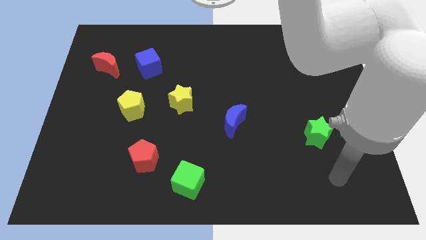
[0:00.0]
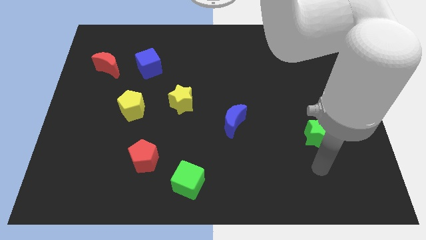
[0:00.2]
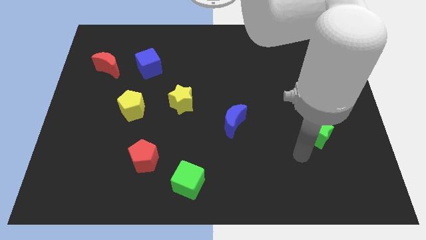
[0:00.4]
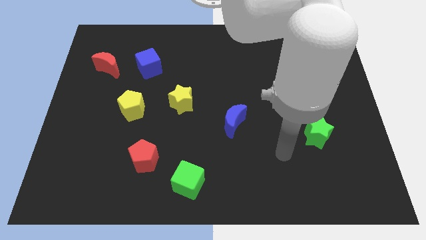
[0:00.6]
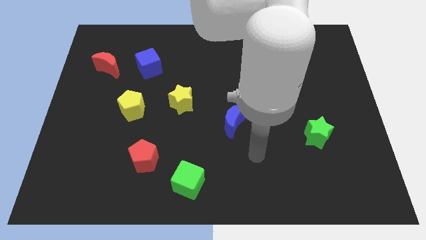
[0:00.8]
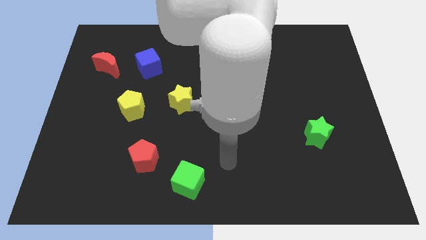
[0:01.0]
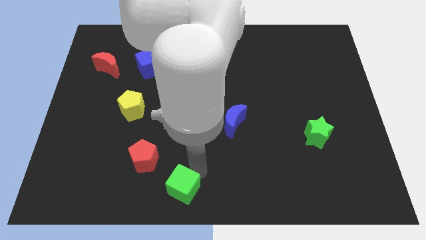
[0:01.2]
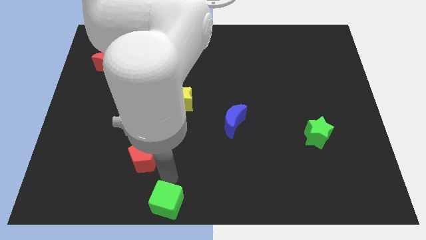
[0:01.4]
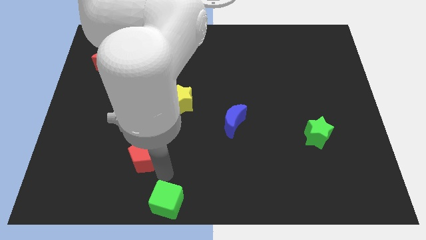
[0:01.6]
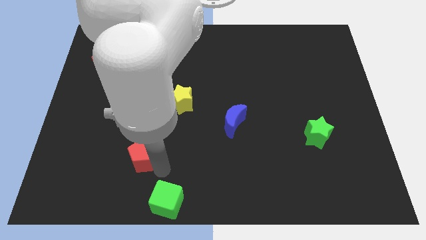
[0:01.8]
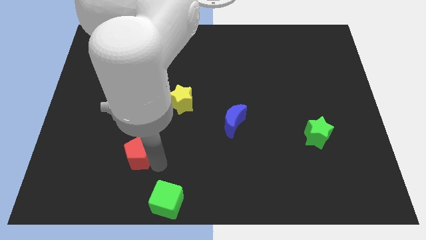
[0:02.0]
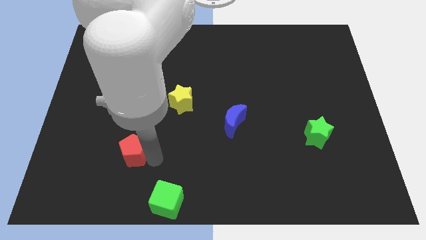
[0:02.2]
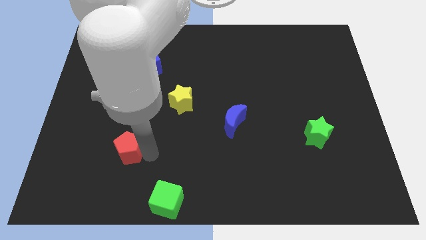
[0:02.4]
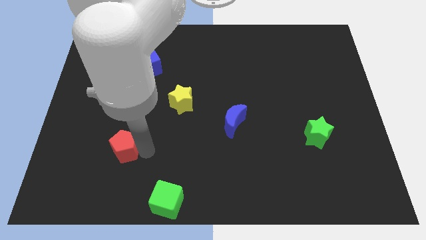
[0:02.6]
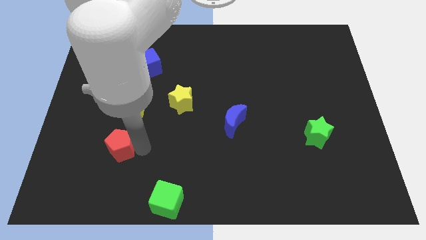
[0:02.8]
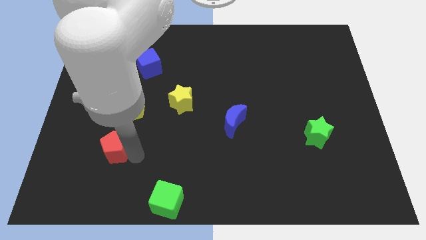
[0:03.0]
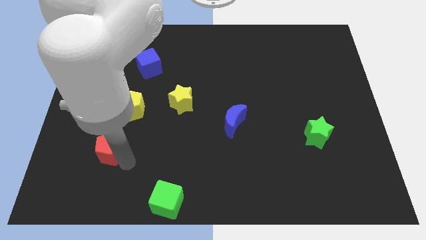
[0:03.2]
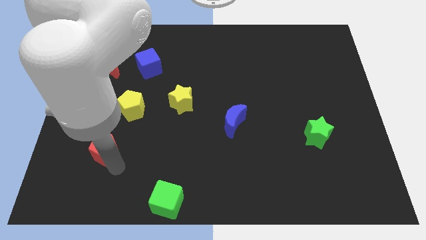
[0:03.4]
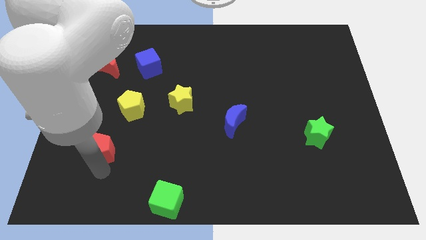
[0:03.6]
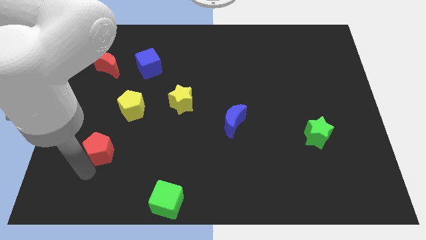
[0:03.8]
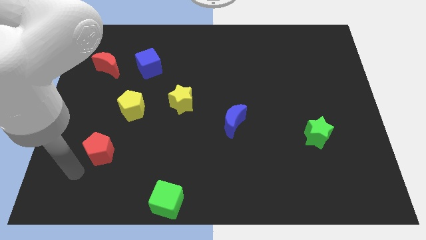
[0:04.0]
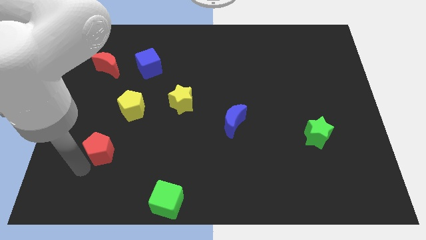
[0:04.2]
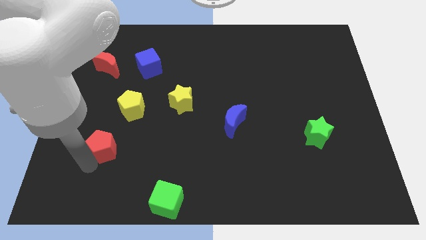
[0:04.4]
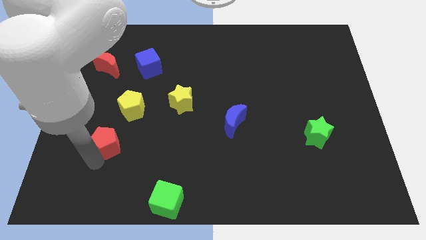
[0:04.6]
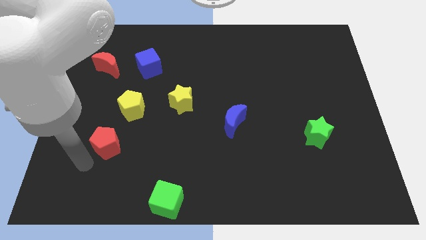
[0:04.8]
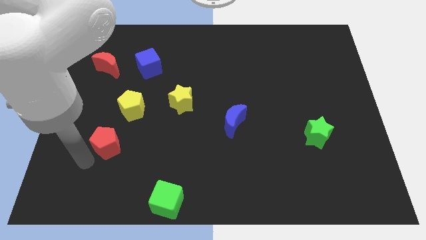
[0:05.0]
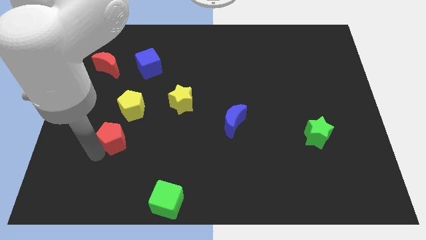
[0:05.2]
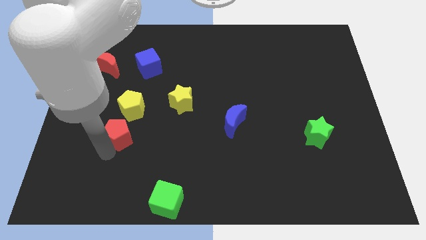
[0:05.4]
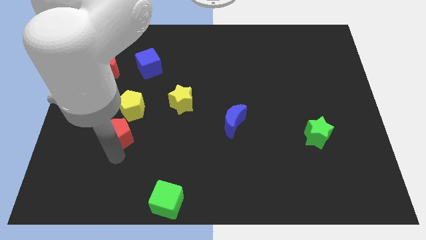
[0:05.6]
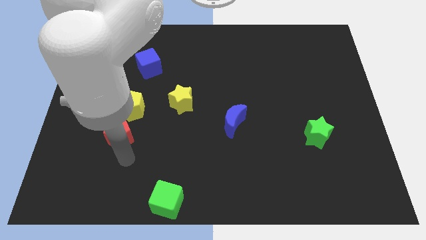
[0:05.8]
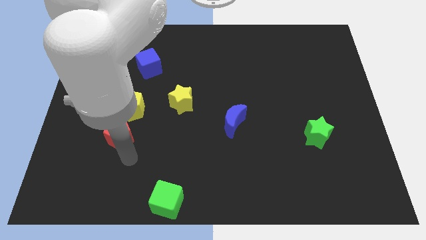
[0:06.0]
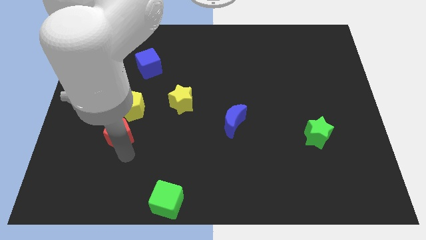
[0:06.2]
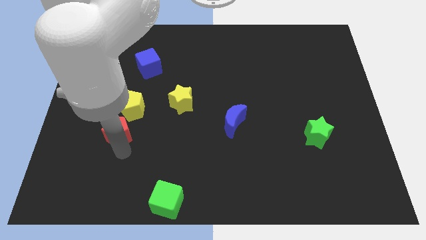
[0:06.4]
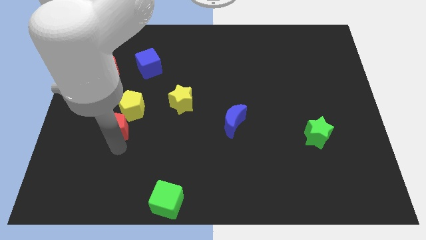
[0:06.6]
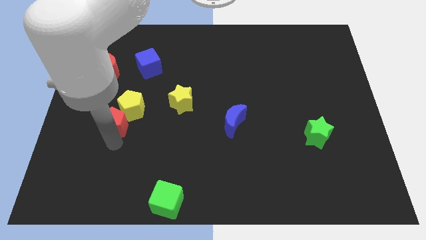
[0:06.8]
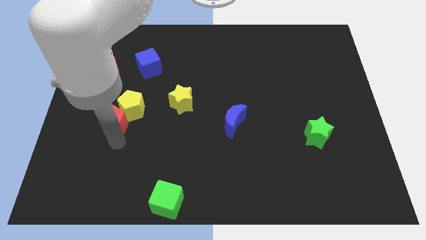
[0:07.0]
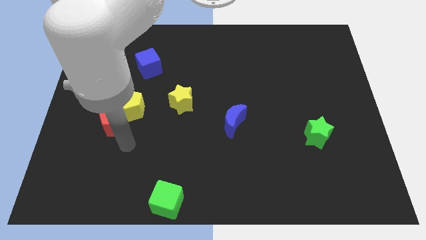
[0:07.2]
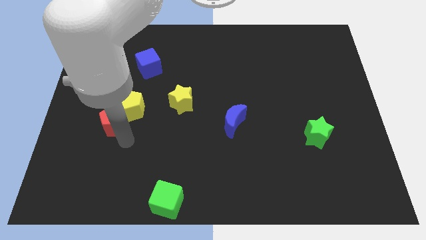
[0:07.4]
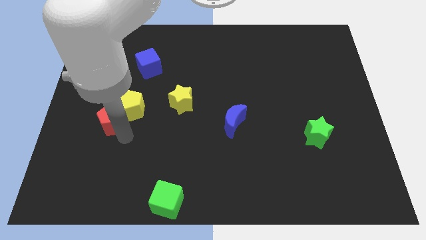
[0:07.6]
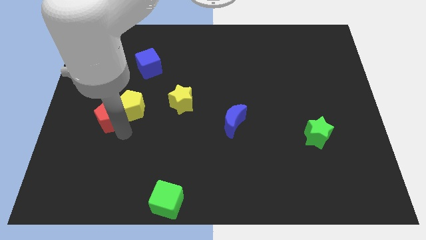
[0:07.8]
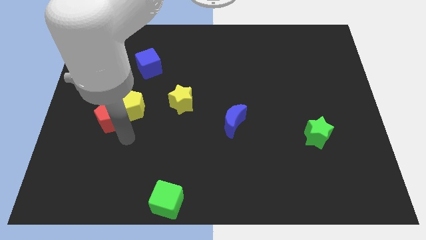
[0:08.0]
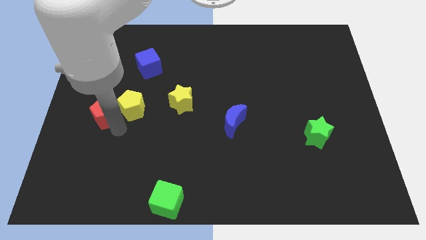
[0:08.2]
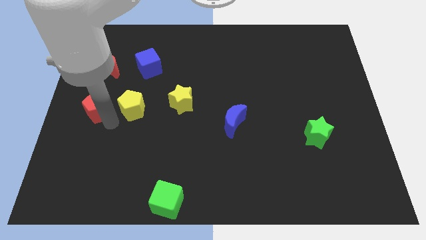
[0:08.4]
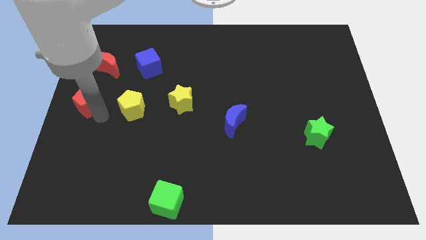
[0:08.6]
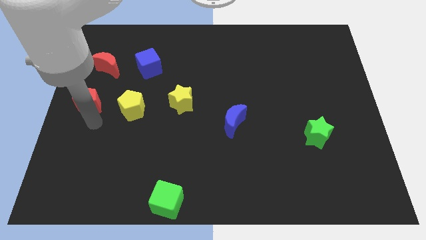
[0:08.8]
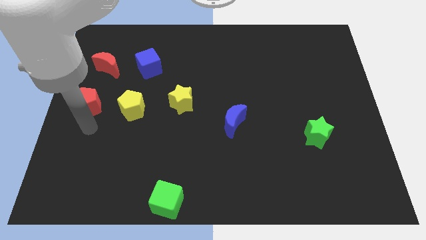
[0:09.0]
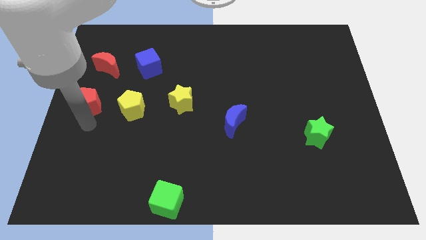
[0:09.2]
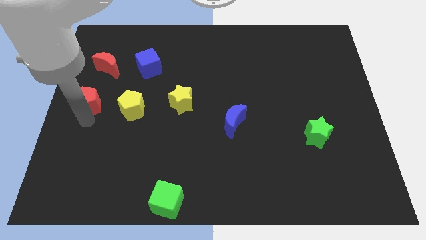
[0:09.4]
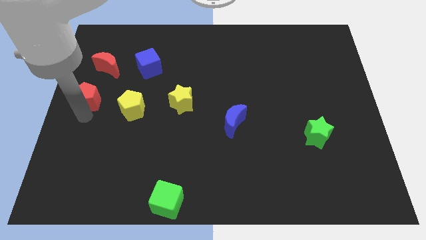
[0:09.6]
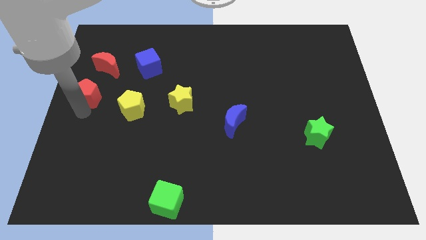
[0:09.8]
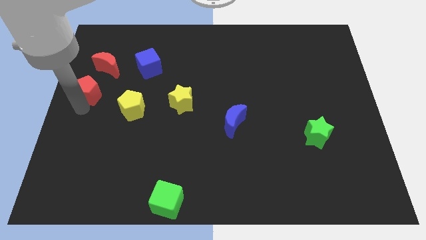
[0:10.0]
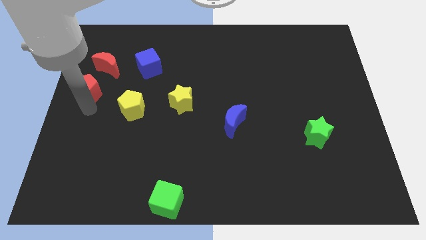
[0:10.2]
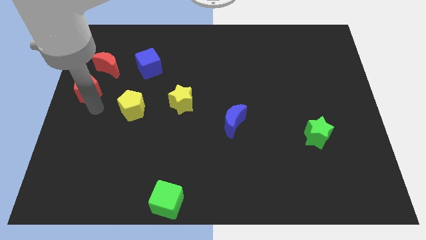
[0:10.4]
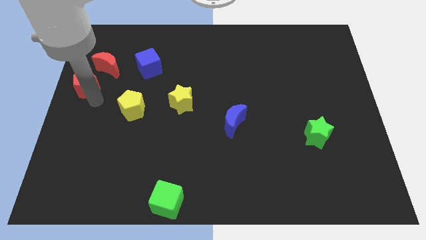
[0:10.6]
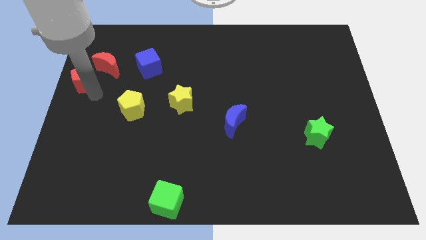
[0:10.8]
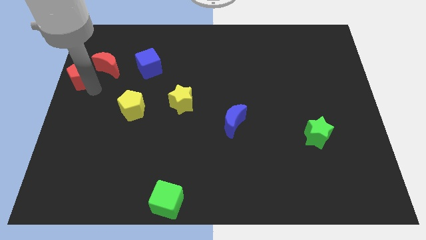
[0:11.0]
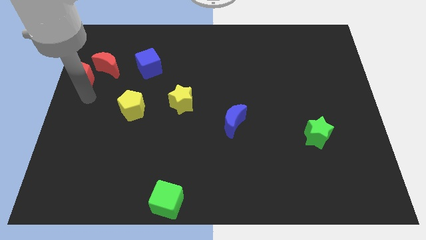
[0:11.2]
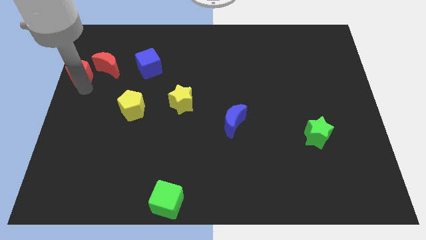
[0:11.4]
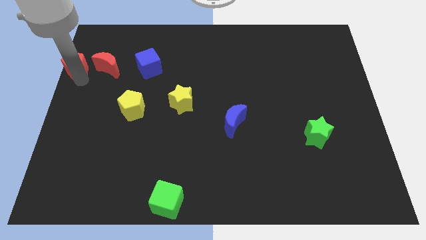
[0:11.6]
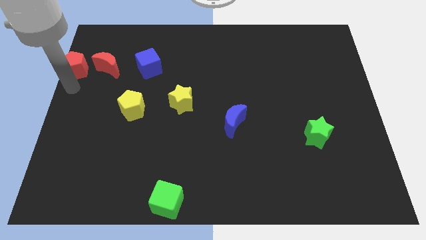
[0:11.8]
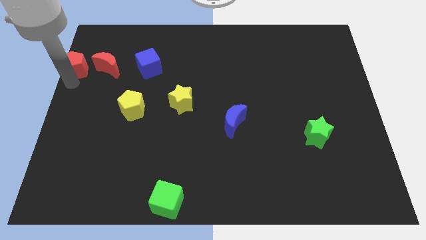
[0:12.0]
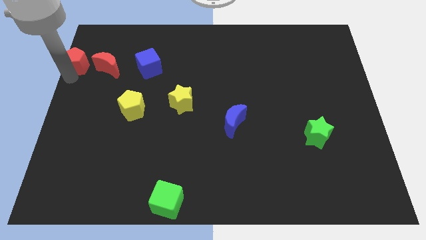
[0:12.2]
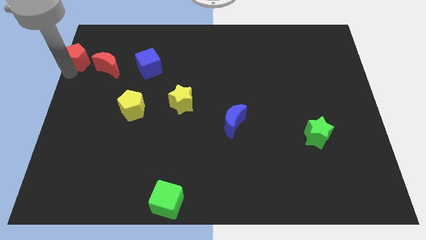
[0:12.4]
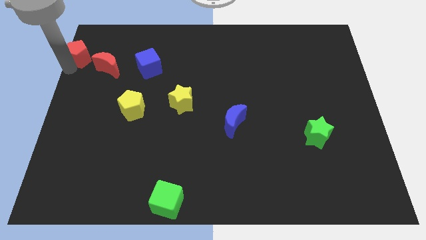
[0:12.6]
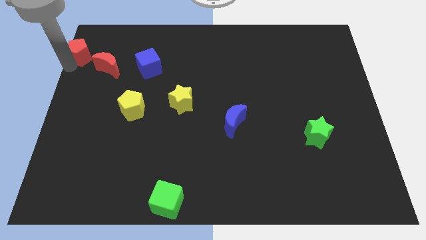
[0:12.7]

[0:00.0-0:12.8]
move the red pentagon to the upper left corner
